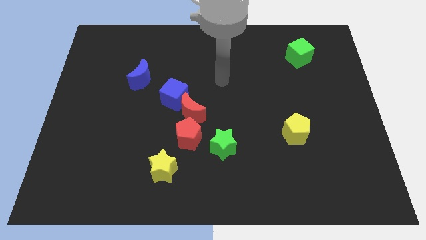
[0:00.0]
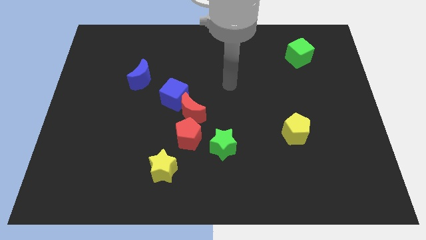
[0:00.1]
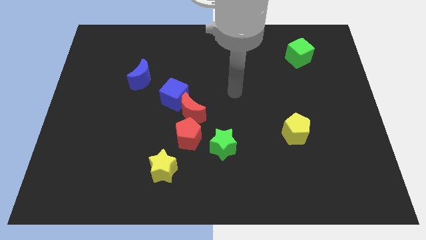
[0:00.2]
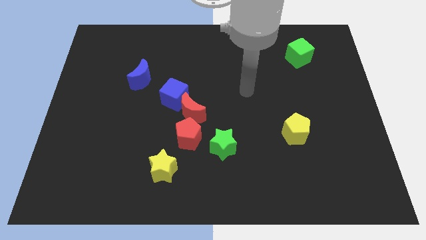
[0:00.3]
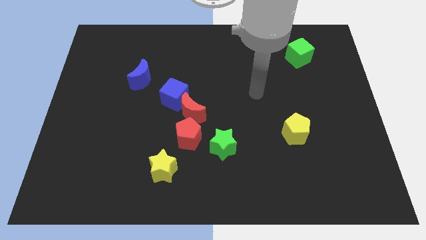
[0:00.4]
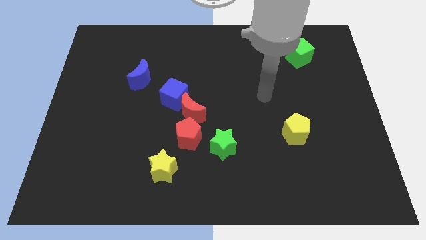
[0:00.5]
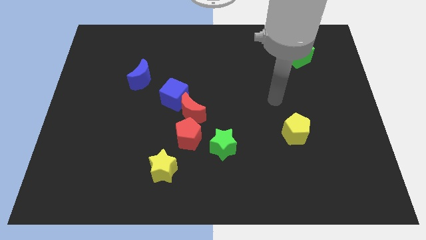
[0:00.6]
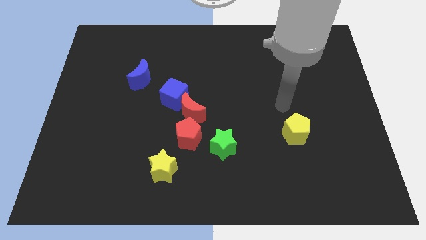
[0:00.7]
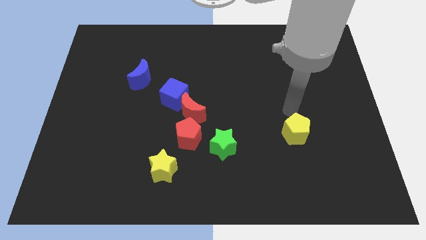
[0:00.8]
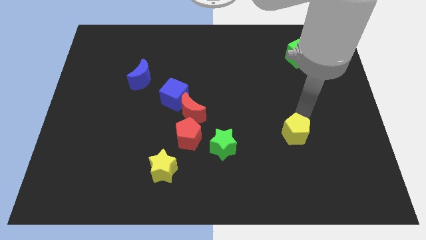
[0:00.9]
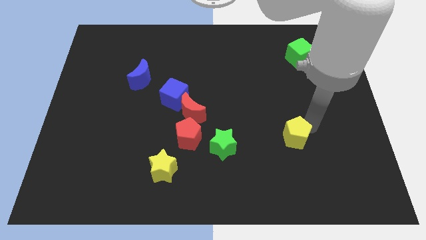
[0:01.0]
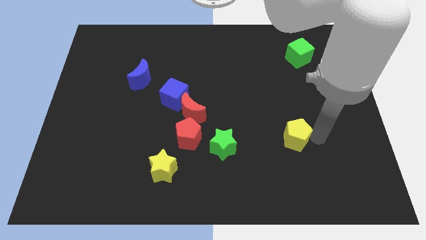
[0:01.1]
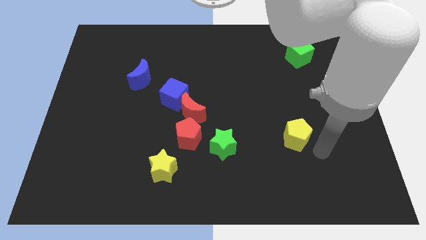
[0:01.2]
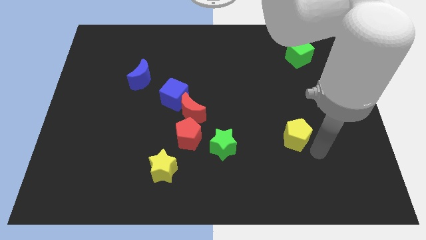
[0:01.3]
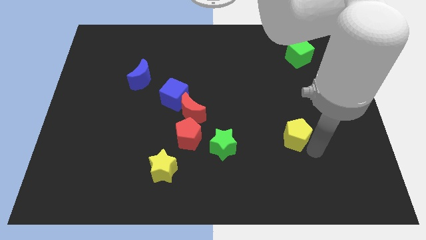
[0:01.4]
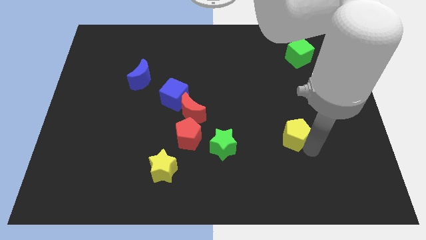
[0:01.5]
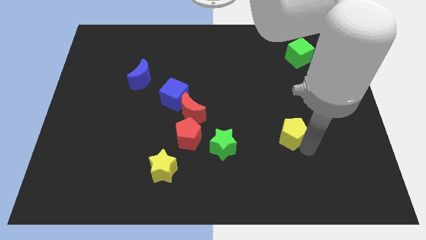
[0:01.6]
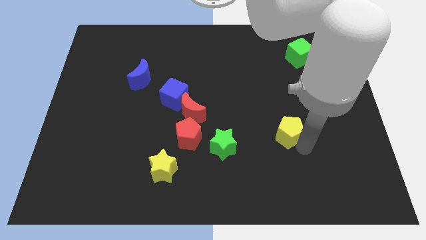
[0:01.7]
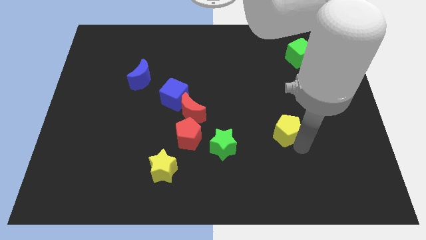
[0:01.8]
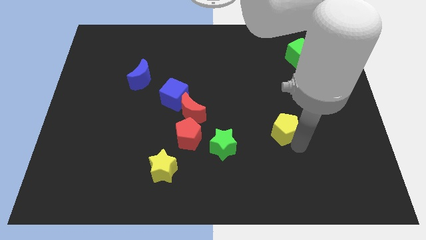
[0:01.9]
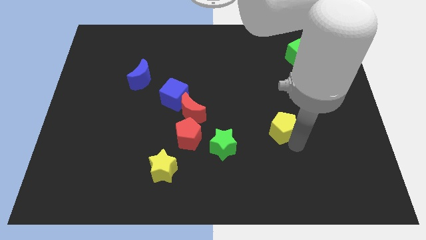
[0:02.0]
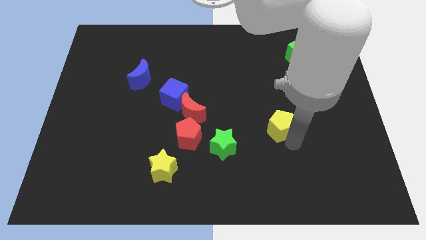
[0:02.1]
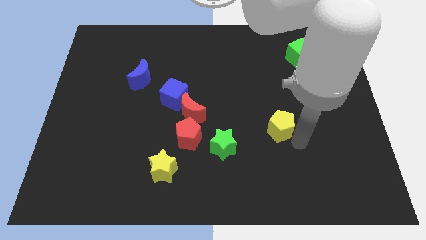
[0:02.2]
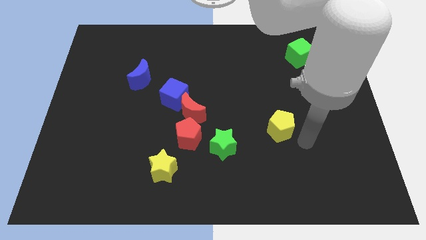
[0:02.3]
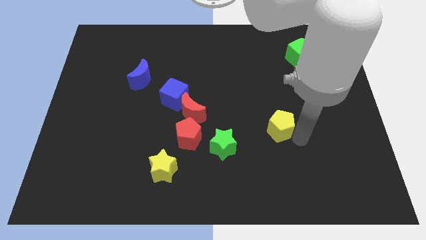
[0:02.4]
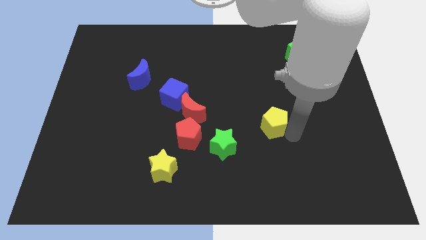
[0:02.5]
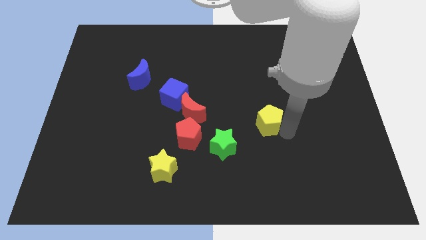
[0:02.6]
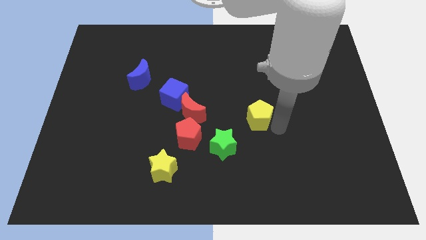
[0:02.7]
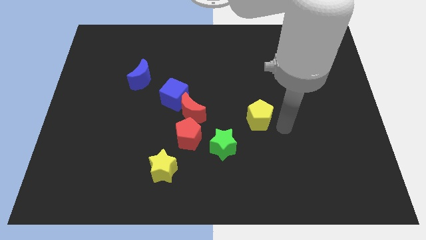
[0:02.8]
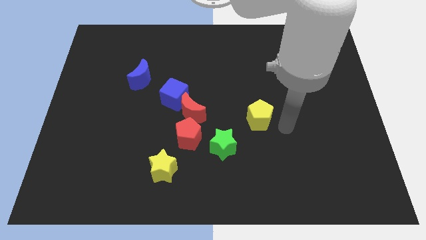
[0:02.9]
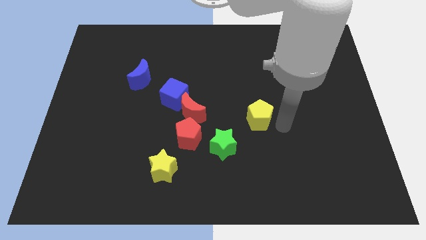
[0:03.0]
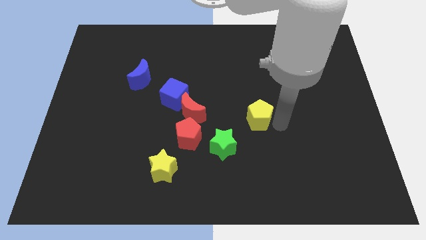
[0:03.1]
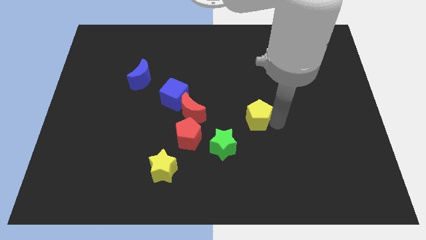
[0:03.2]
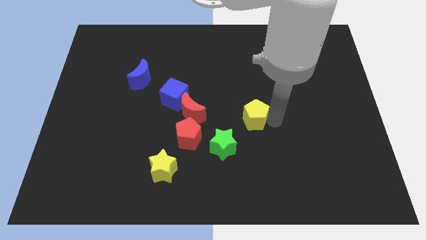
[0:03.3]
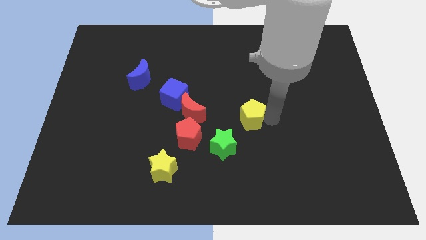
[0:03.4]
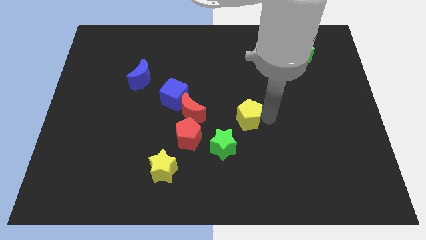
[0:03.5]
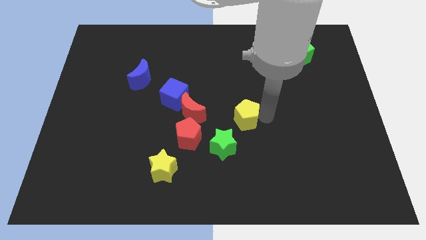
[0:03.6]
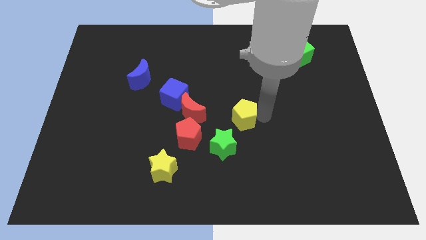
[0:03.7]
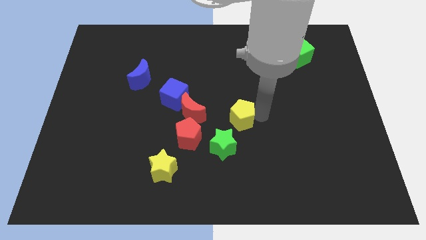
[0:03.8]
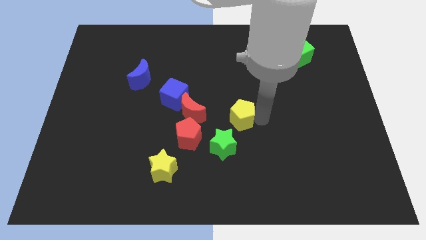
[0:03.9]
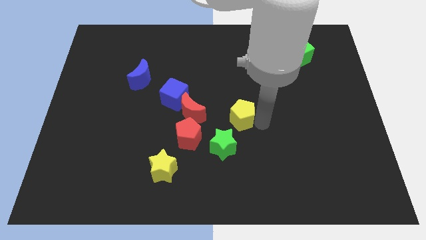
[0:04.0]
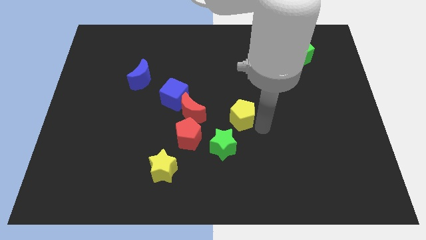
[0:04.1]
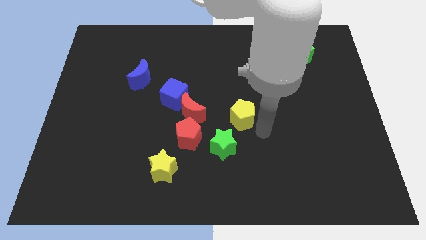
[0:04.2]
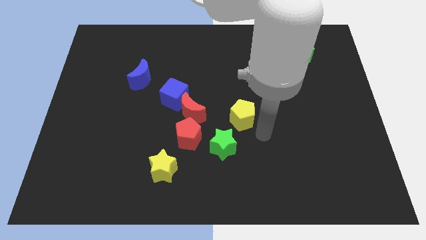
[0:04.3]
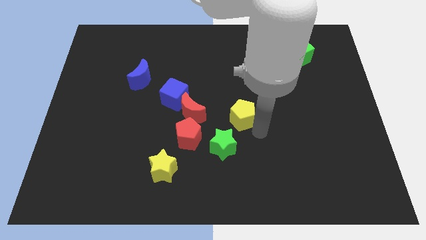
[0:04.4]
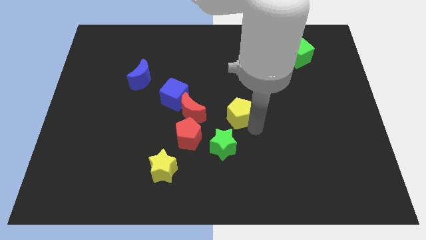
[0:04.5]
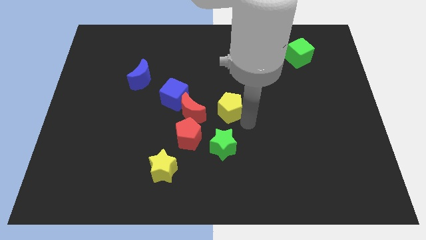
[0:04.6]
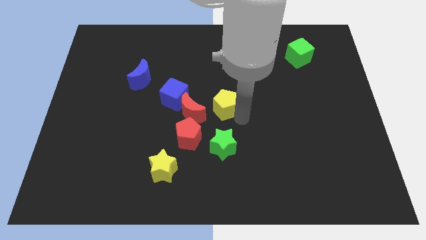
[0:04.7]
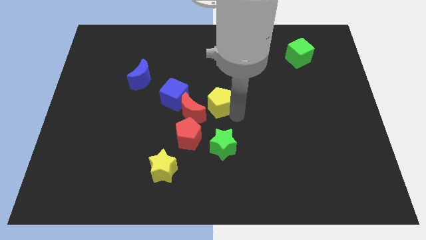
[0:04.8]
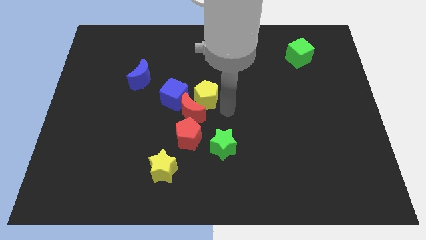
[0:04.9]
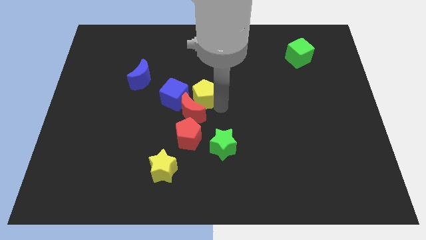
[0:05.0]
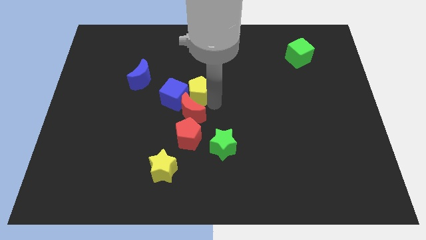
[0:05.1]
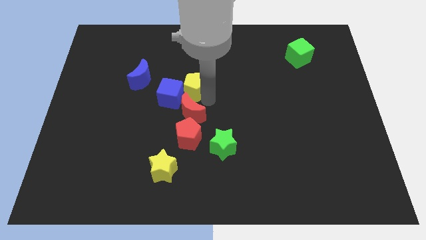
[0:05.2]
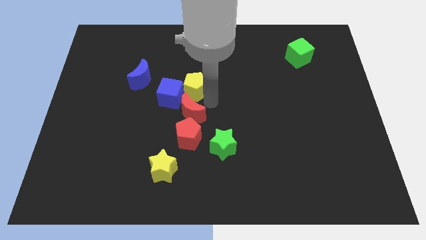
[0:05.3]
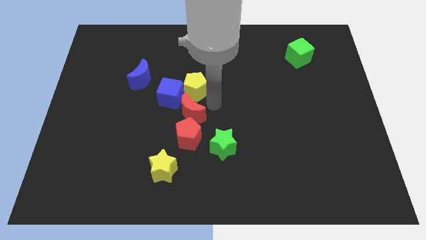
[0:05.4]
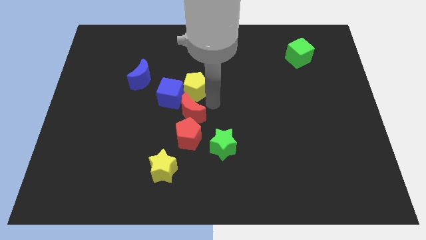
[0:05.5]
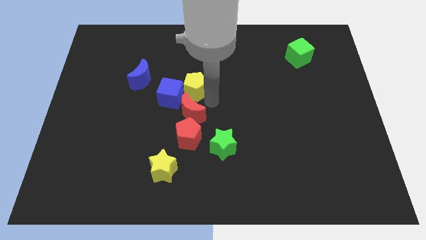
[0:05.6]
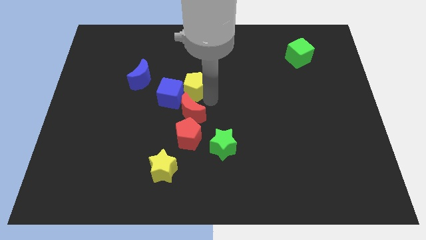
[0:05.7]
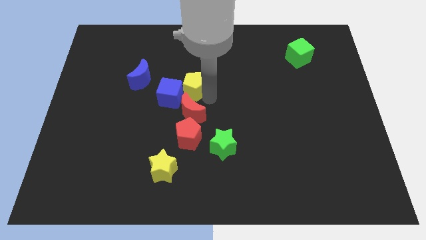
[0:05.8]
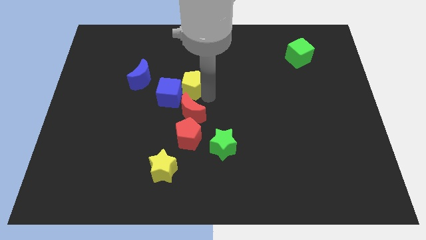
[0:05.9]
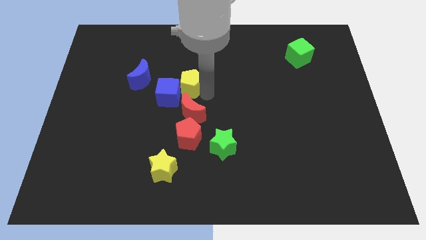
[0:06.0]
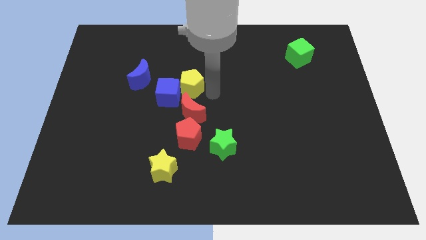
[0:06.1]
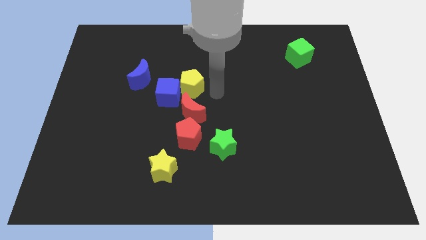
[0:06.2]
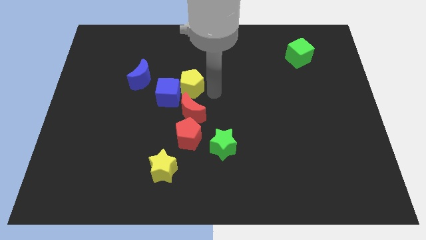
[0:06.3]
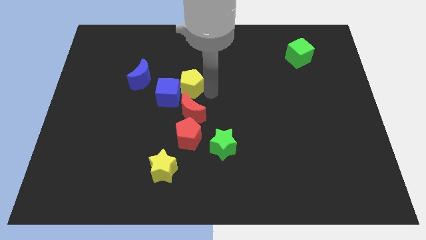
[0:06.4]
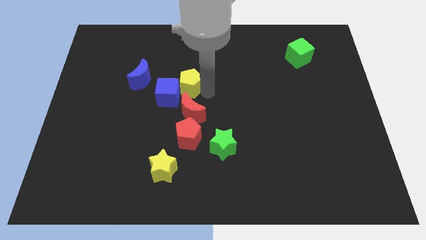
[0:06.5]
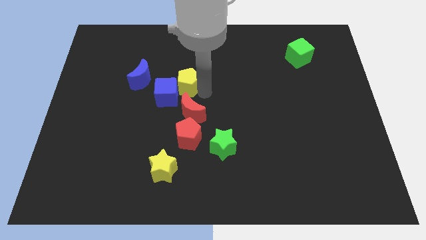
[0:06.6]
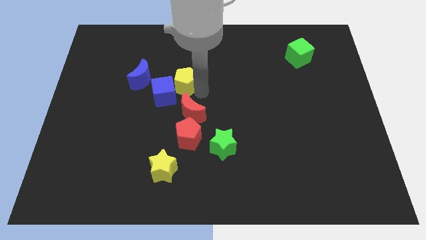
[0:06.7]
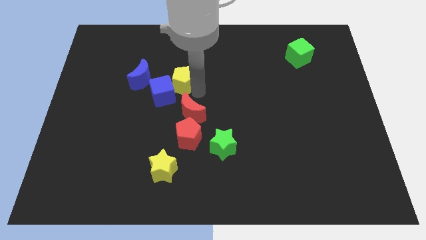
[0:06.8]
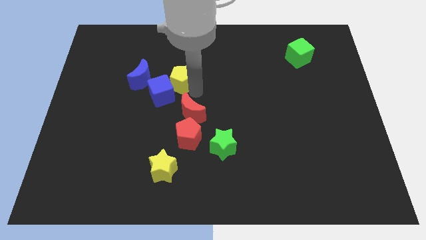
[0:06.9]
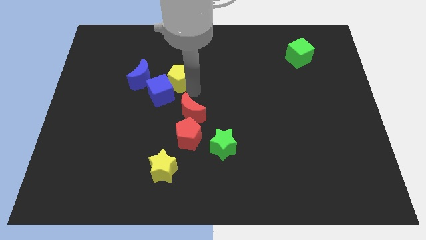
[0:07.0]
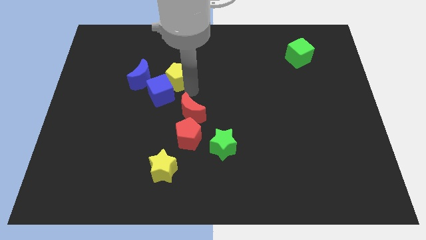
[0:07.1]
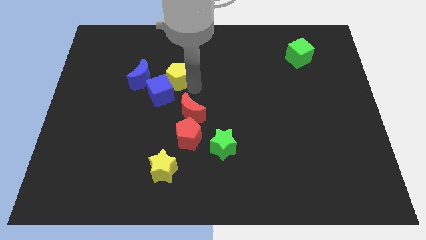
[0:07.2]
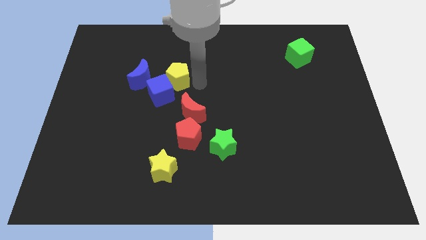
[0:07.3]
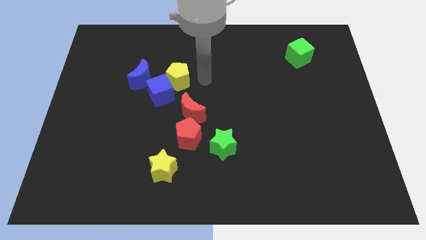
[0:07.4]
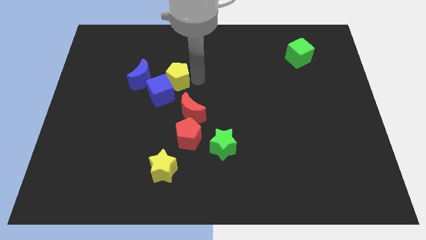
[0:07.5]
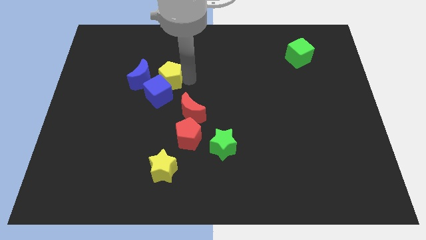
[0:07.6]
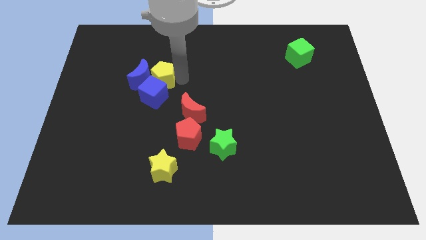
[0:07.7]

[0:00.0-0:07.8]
put the yellow pentagon next to the blue moon
